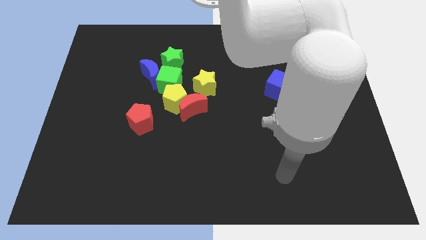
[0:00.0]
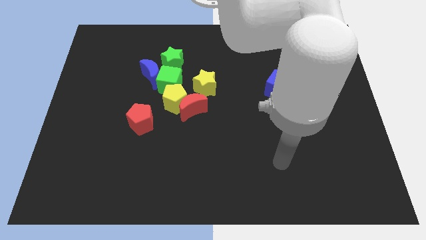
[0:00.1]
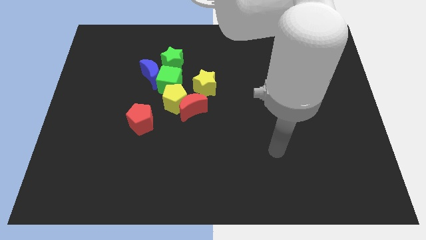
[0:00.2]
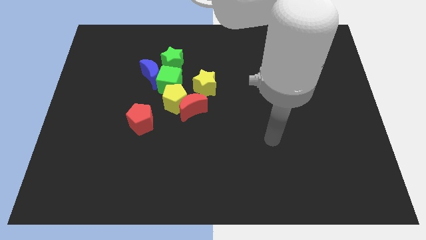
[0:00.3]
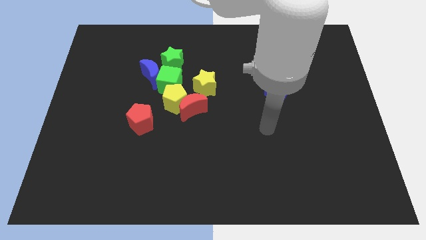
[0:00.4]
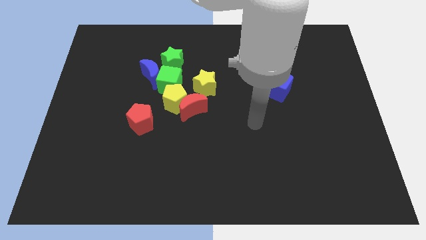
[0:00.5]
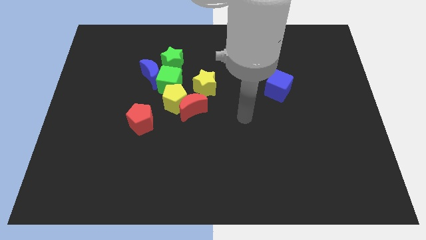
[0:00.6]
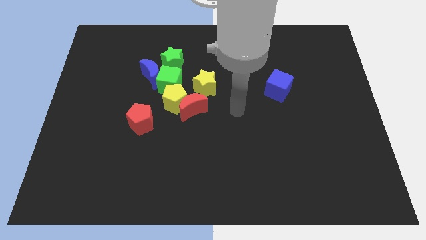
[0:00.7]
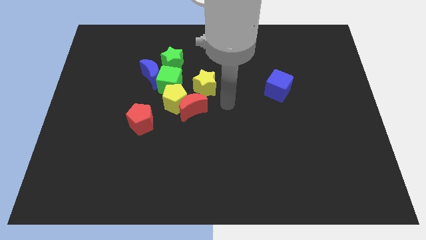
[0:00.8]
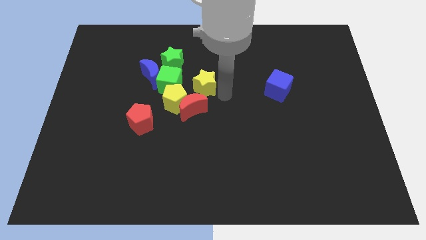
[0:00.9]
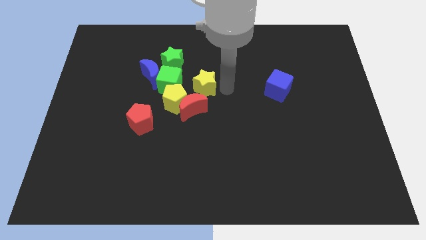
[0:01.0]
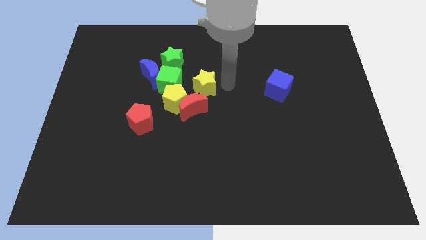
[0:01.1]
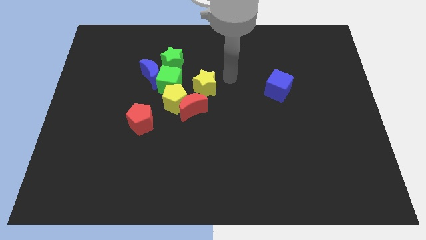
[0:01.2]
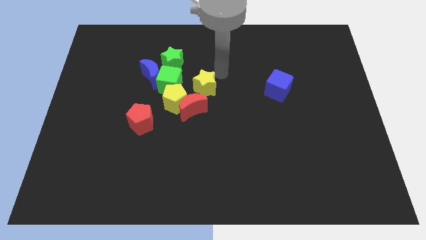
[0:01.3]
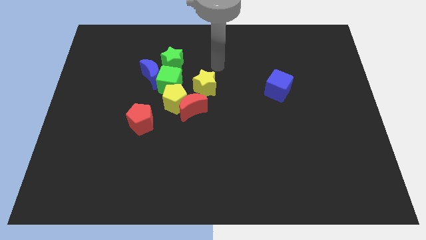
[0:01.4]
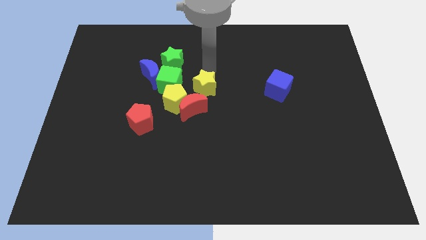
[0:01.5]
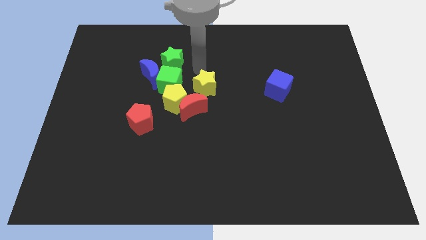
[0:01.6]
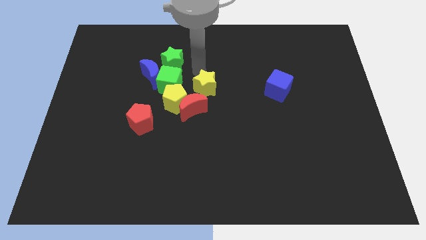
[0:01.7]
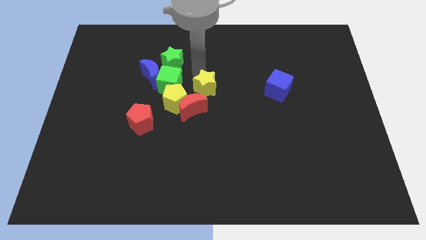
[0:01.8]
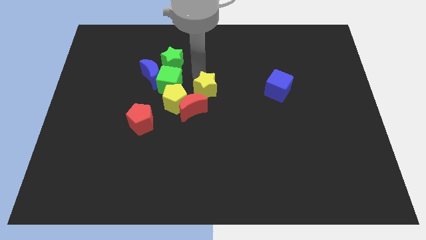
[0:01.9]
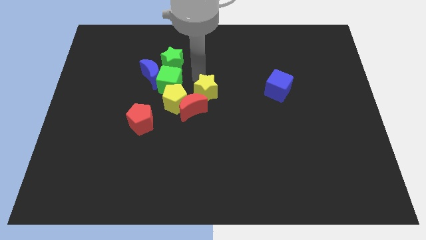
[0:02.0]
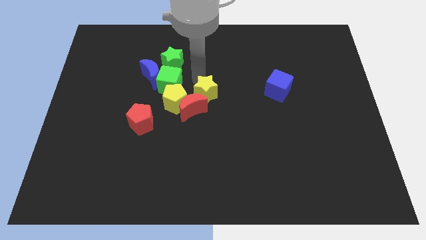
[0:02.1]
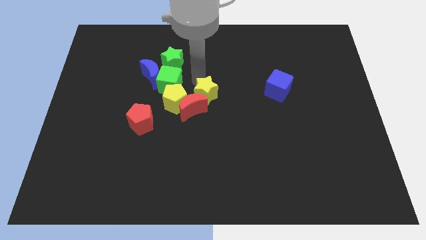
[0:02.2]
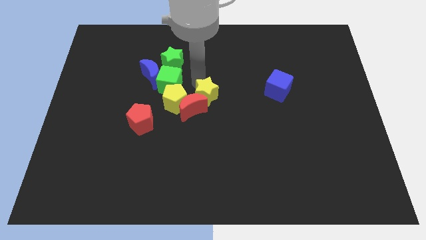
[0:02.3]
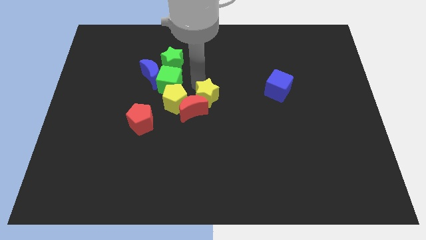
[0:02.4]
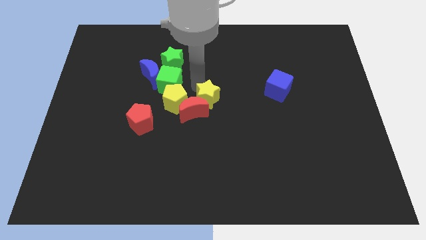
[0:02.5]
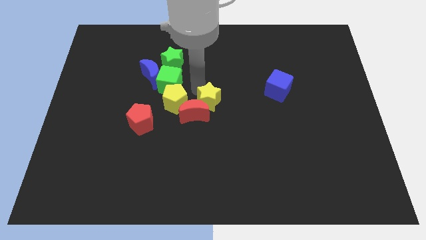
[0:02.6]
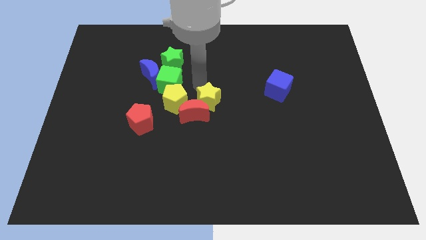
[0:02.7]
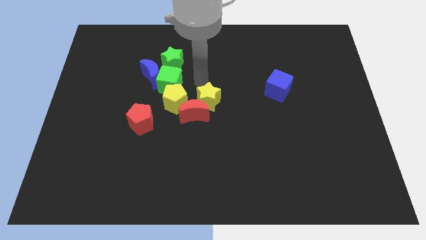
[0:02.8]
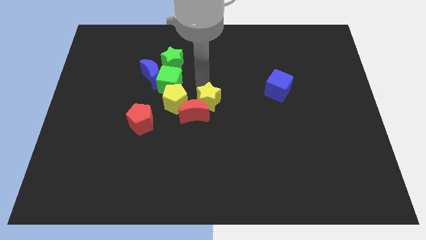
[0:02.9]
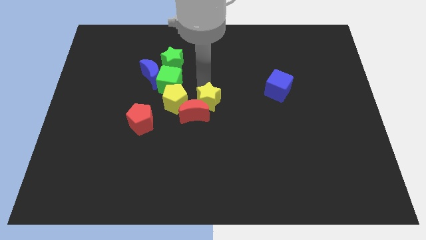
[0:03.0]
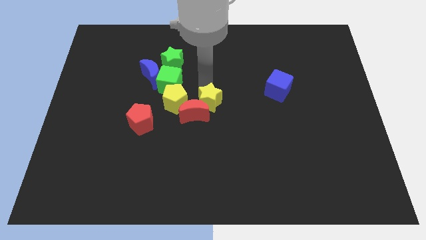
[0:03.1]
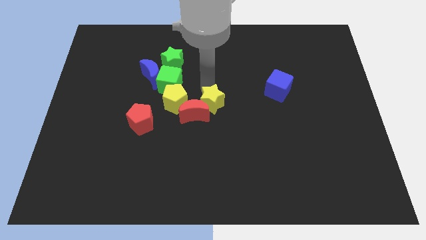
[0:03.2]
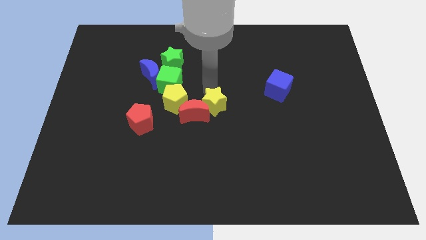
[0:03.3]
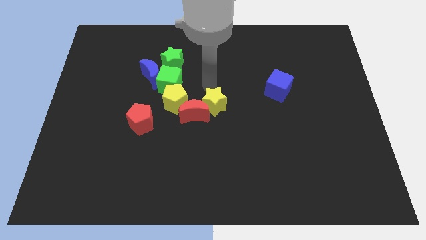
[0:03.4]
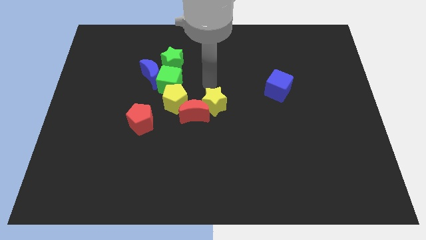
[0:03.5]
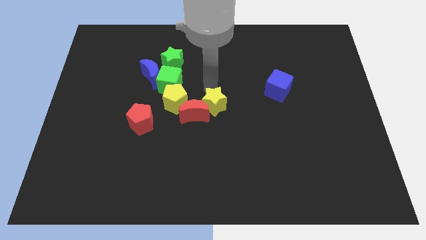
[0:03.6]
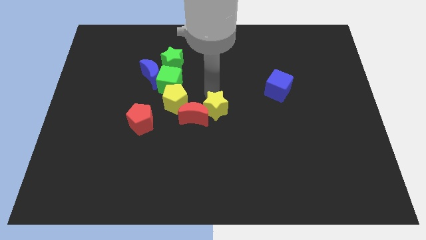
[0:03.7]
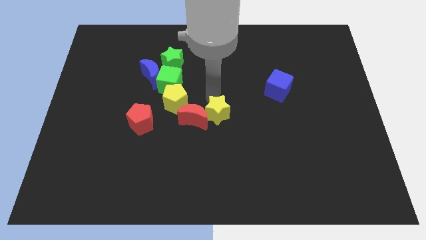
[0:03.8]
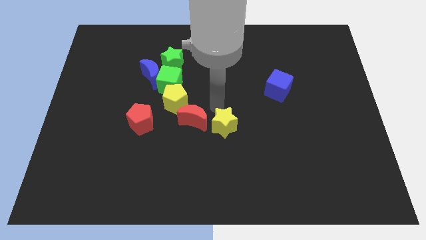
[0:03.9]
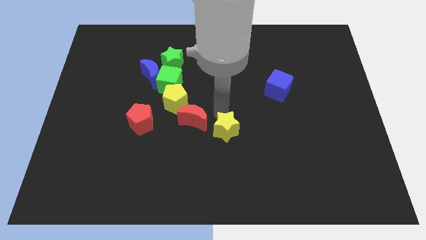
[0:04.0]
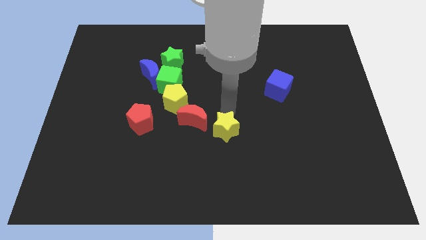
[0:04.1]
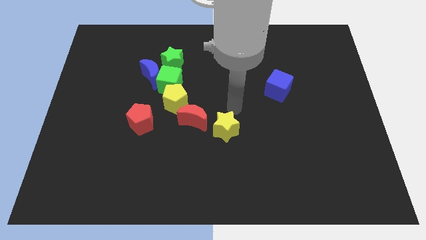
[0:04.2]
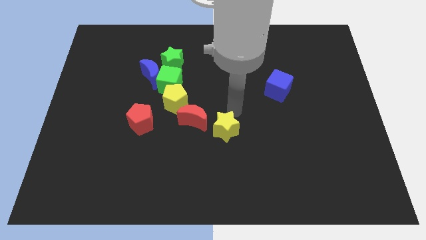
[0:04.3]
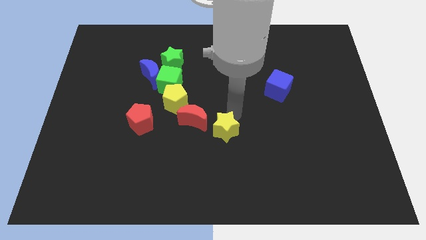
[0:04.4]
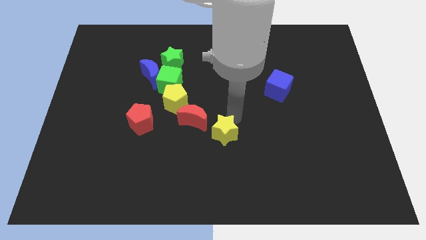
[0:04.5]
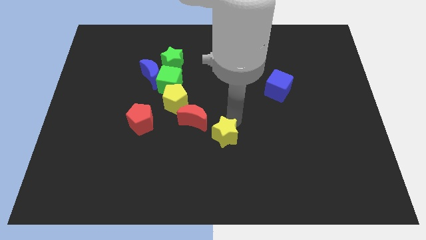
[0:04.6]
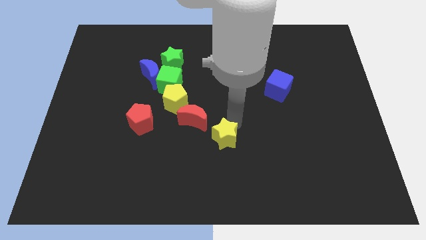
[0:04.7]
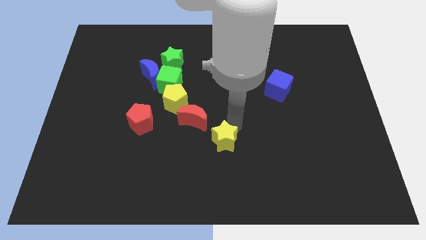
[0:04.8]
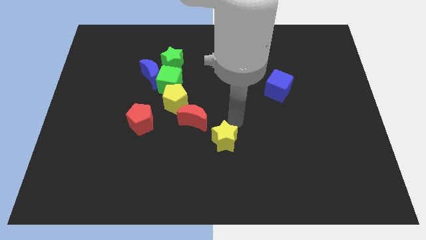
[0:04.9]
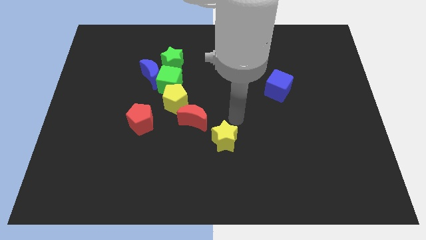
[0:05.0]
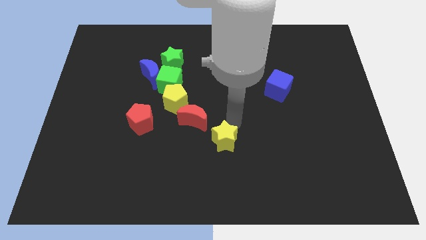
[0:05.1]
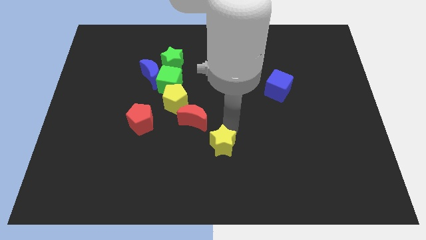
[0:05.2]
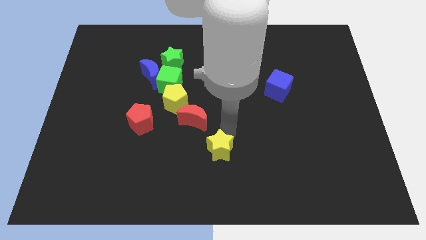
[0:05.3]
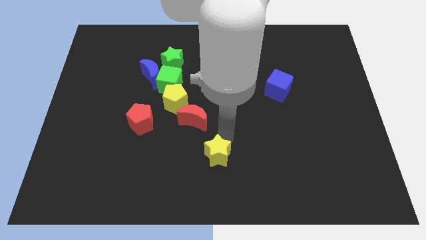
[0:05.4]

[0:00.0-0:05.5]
slide the yellow star to the bottom side

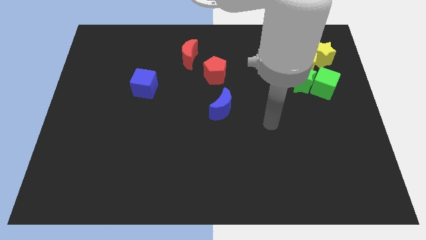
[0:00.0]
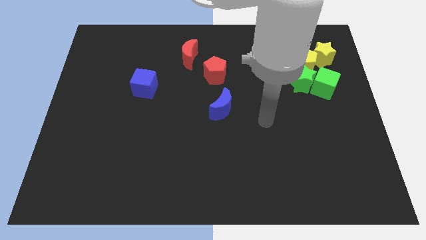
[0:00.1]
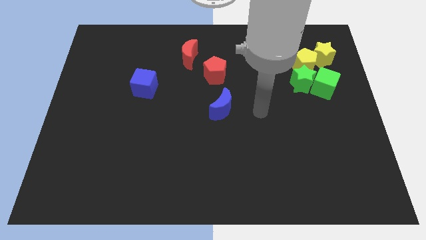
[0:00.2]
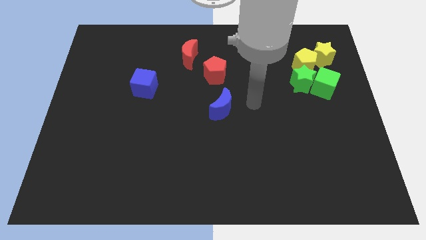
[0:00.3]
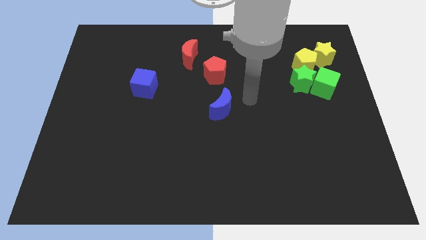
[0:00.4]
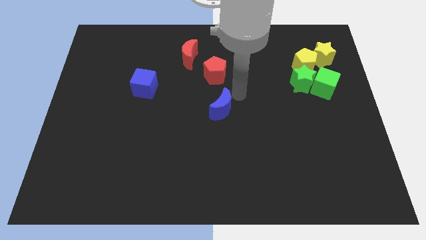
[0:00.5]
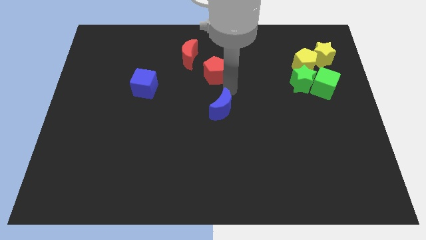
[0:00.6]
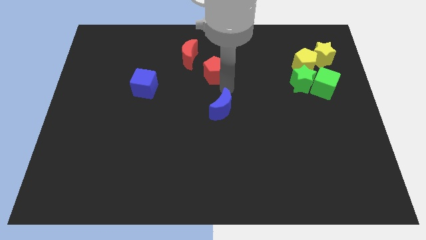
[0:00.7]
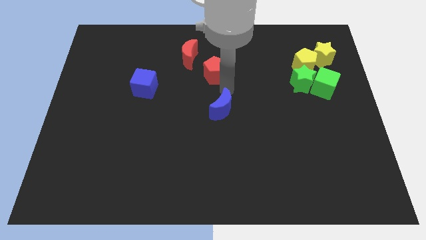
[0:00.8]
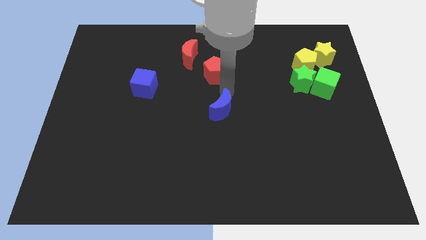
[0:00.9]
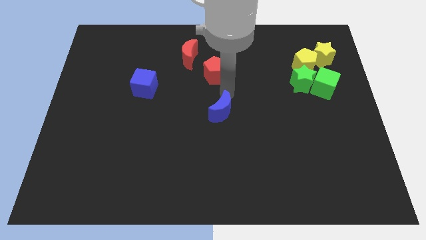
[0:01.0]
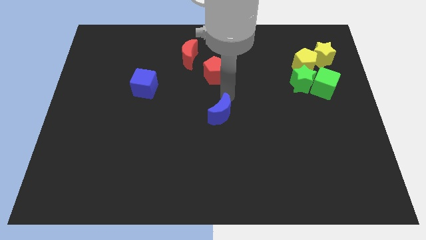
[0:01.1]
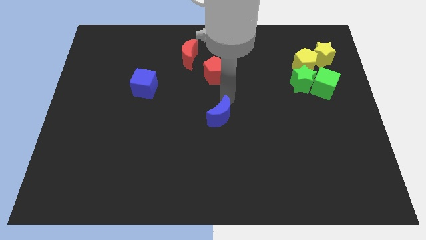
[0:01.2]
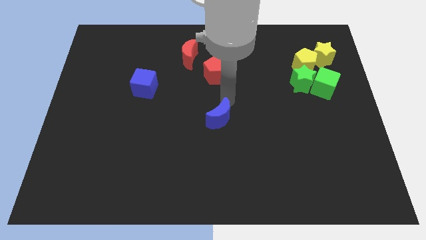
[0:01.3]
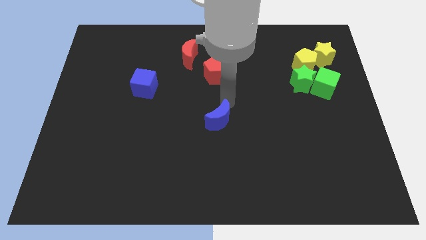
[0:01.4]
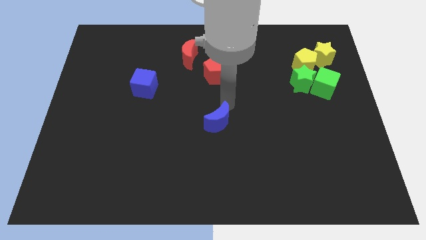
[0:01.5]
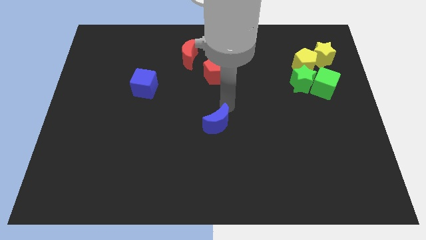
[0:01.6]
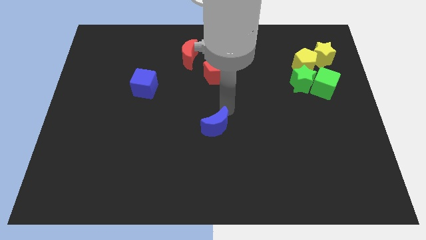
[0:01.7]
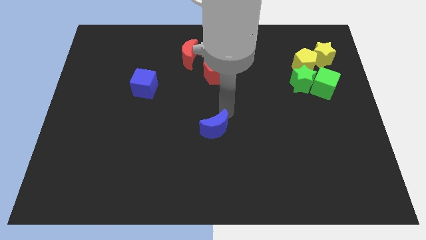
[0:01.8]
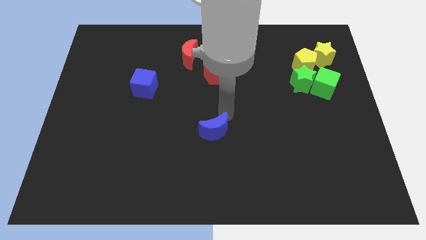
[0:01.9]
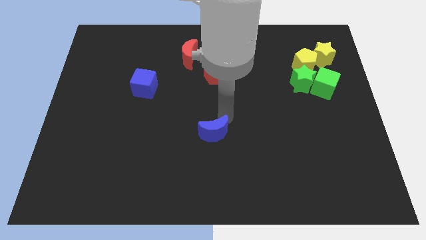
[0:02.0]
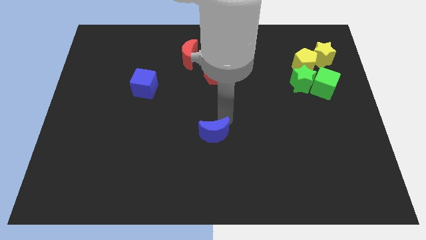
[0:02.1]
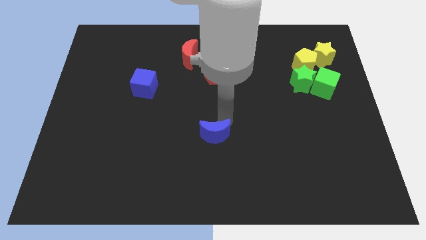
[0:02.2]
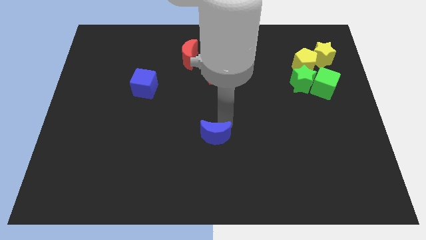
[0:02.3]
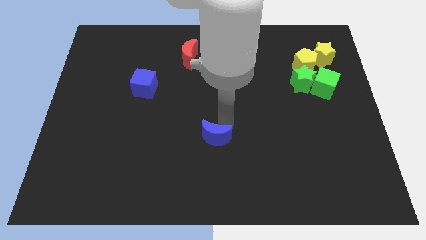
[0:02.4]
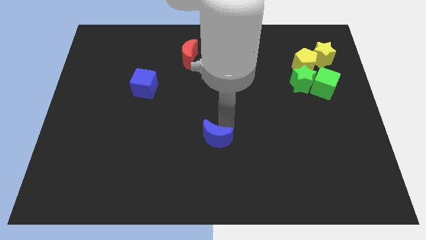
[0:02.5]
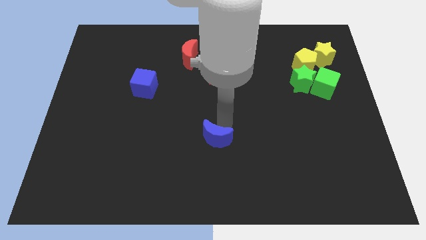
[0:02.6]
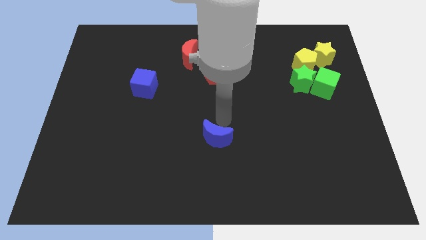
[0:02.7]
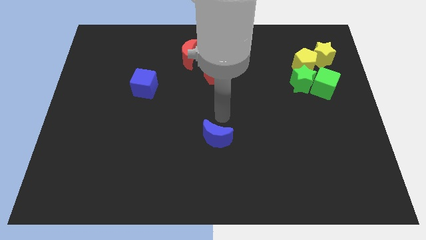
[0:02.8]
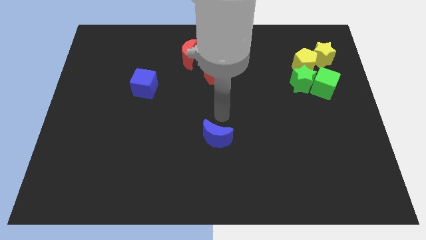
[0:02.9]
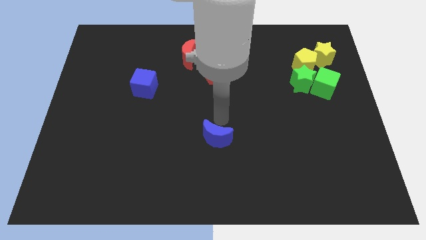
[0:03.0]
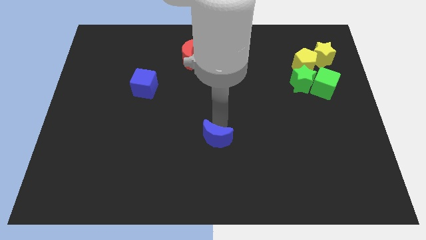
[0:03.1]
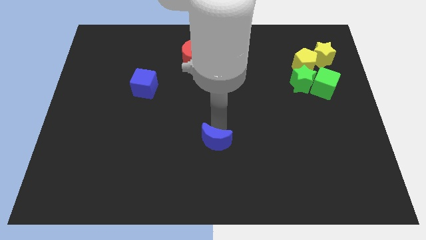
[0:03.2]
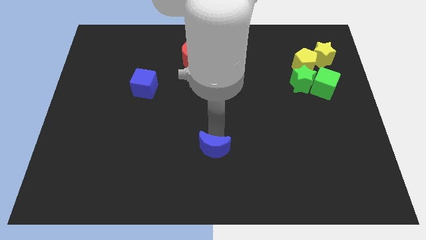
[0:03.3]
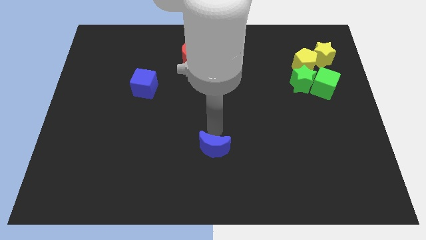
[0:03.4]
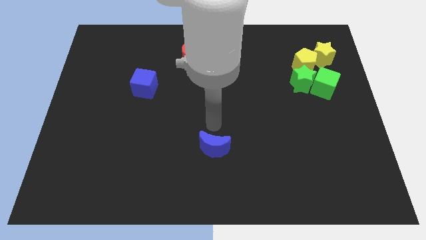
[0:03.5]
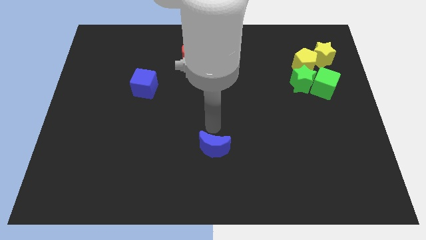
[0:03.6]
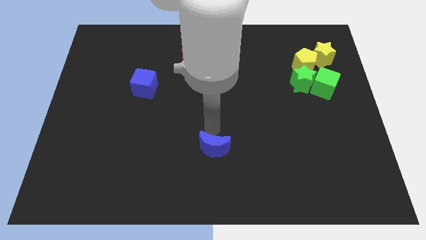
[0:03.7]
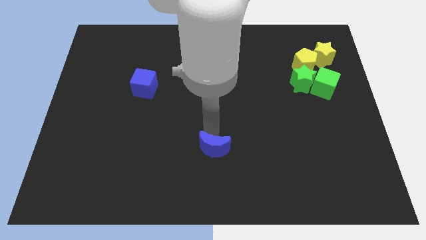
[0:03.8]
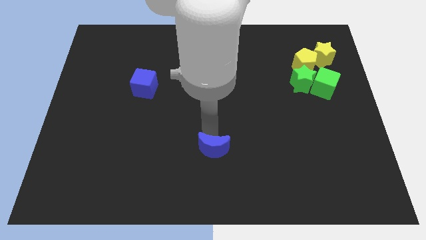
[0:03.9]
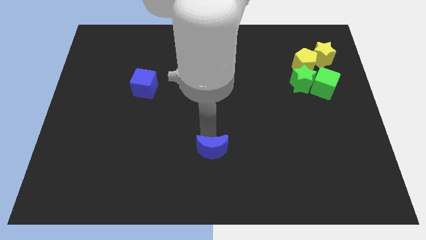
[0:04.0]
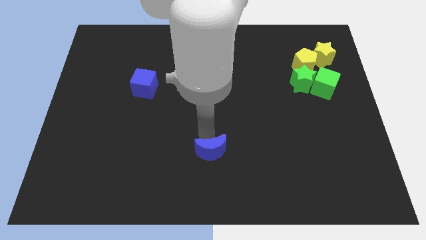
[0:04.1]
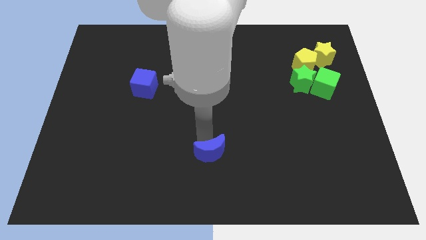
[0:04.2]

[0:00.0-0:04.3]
slide the blue moon to the bottom side
